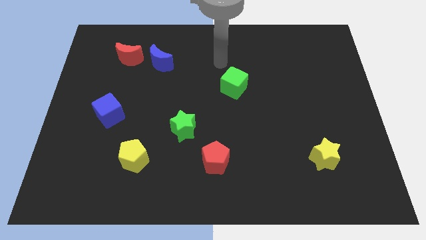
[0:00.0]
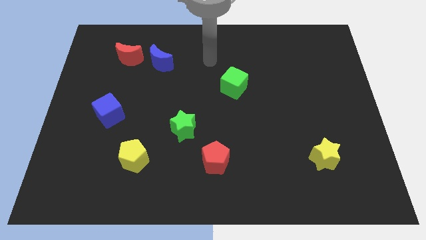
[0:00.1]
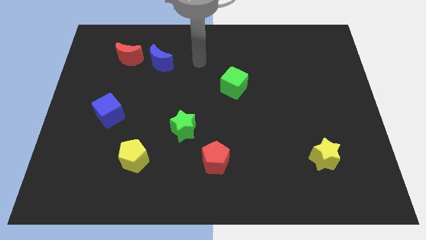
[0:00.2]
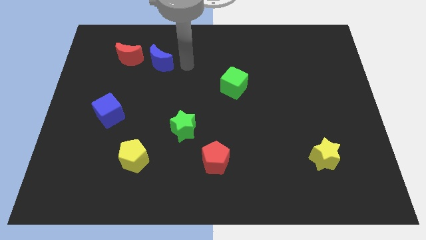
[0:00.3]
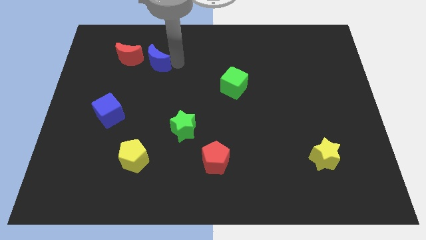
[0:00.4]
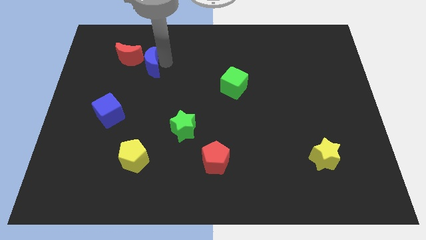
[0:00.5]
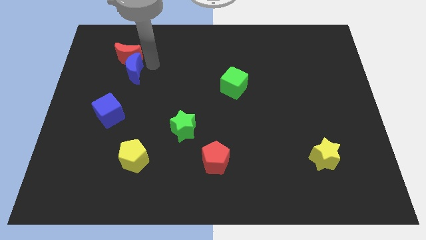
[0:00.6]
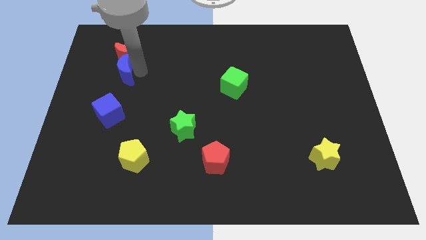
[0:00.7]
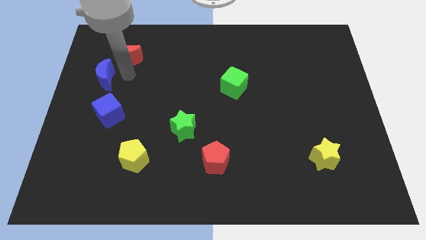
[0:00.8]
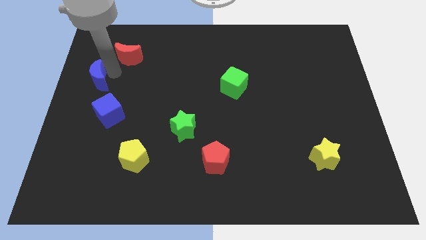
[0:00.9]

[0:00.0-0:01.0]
move the red moon away from the blue moon

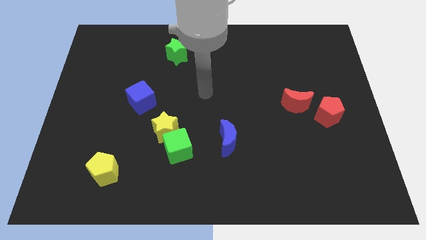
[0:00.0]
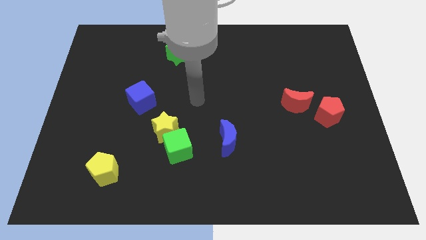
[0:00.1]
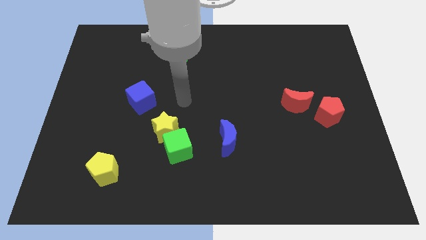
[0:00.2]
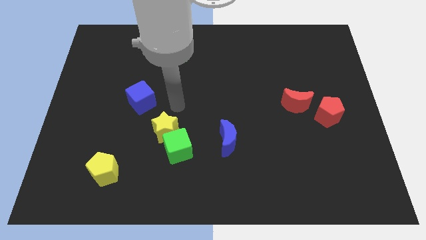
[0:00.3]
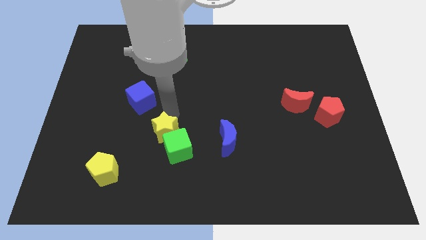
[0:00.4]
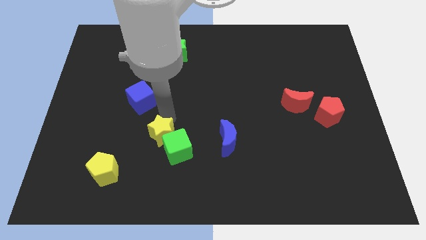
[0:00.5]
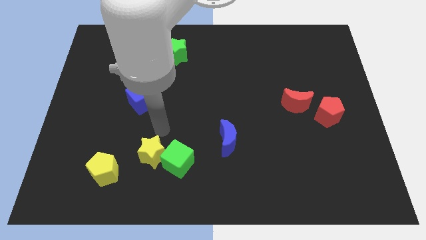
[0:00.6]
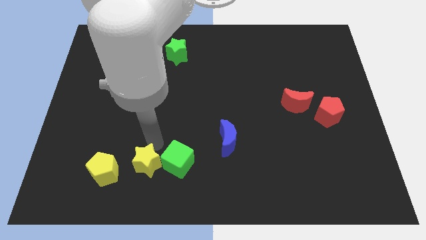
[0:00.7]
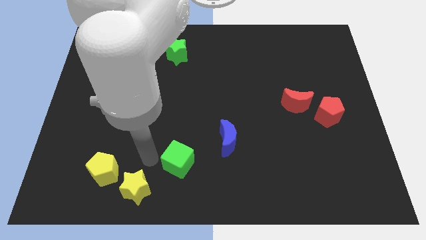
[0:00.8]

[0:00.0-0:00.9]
pull the green cube apart from the yellow star

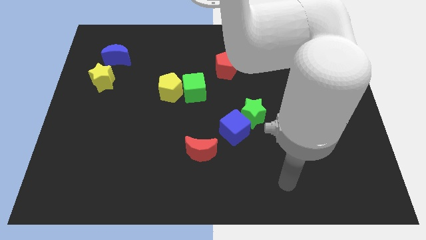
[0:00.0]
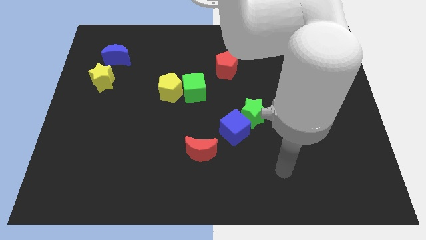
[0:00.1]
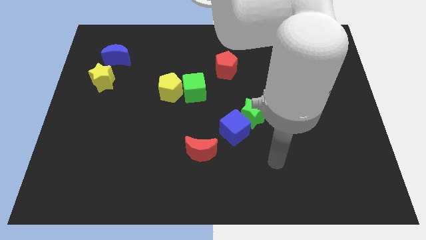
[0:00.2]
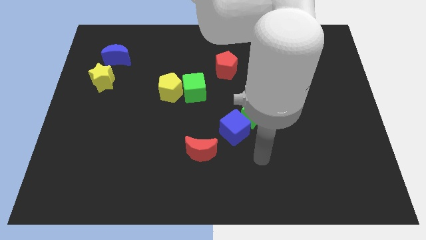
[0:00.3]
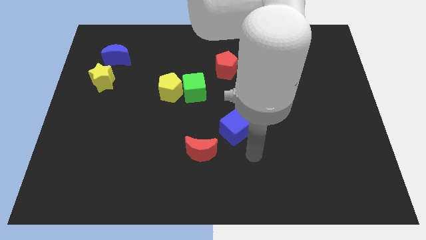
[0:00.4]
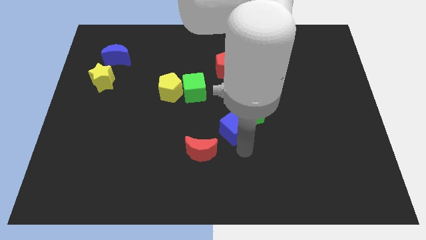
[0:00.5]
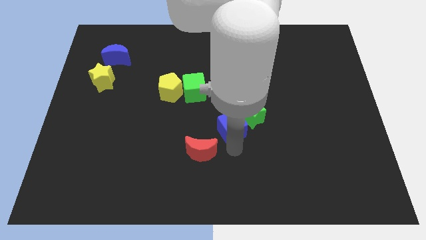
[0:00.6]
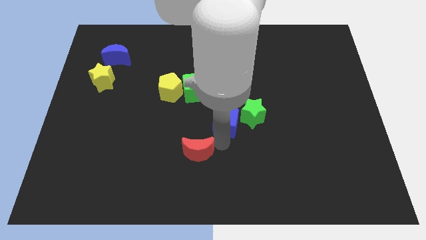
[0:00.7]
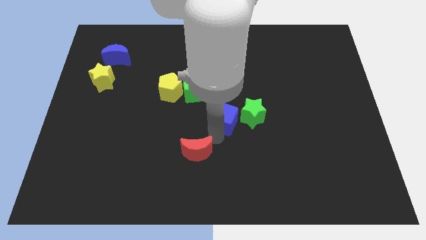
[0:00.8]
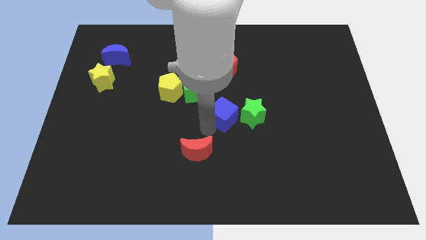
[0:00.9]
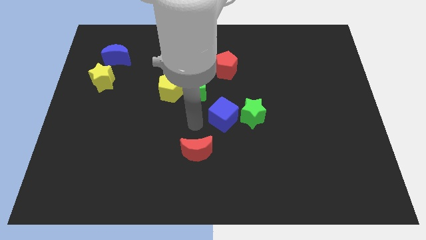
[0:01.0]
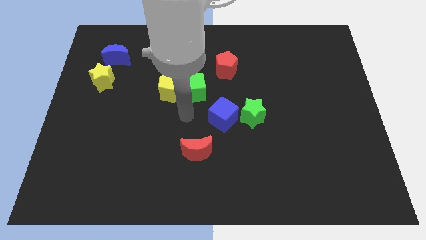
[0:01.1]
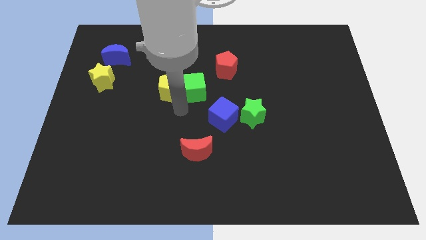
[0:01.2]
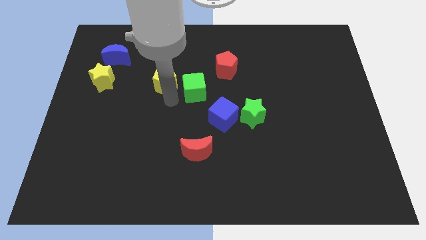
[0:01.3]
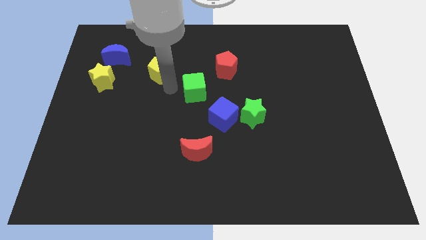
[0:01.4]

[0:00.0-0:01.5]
move the green cube away from the yellow pentagon

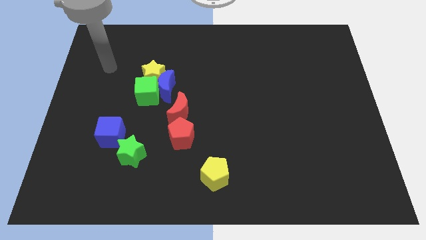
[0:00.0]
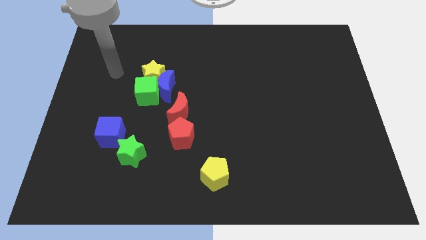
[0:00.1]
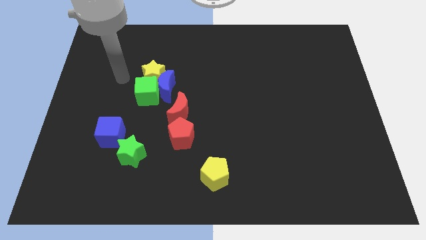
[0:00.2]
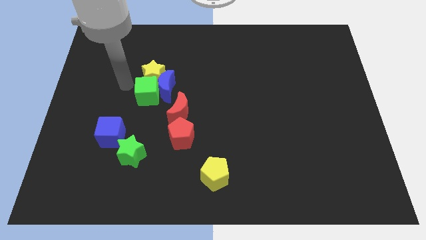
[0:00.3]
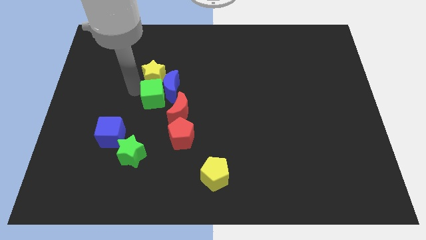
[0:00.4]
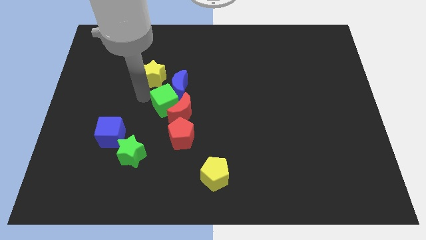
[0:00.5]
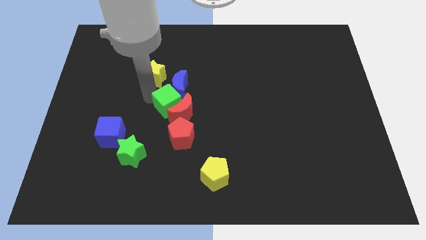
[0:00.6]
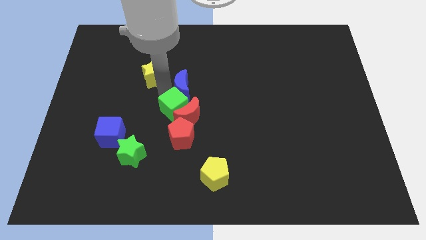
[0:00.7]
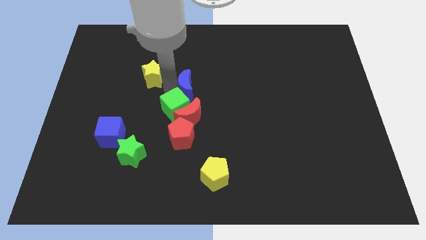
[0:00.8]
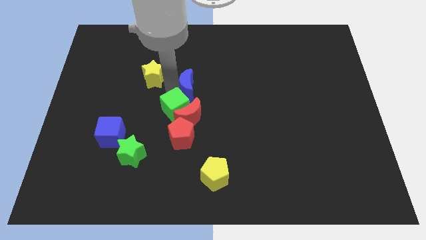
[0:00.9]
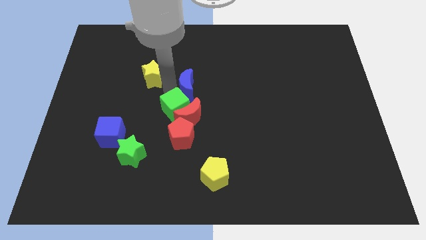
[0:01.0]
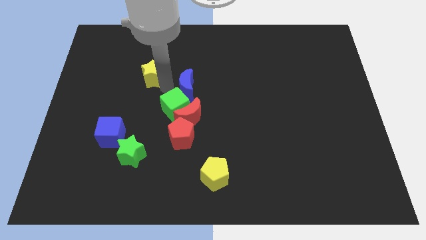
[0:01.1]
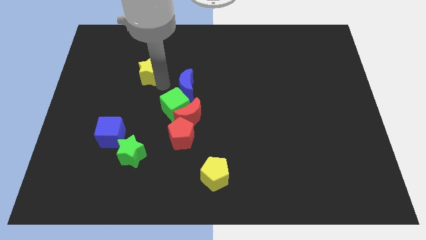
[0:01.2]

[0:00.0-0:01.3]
pull the yellow star apart from the blue moon and green cube

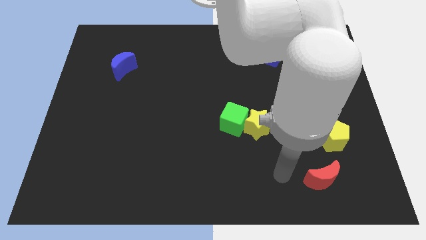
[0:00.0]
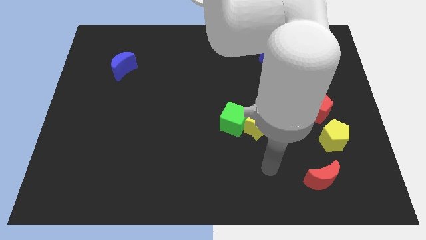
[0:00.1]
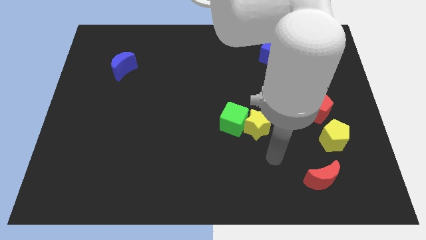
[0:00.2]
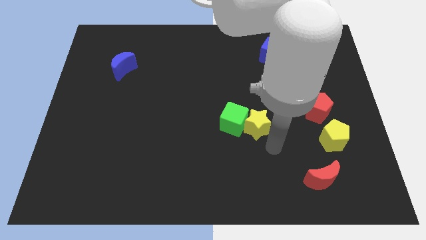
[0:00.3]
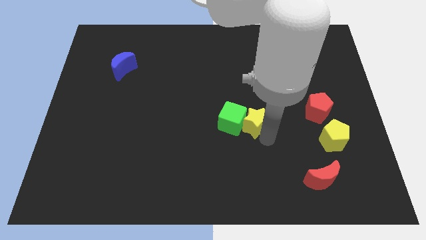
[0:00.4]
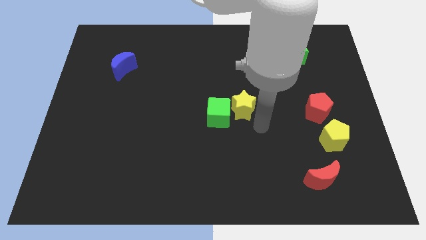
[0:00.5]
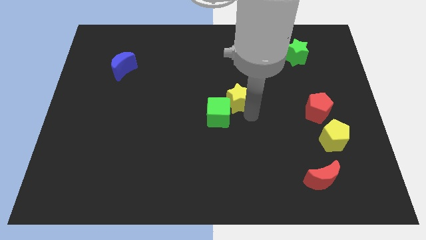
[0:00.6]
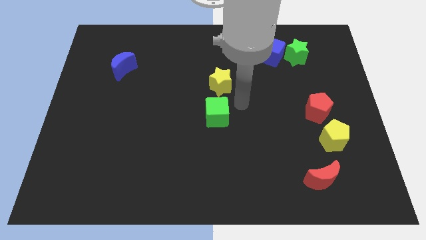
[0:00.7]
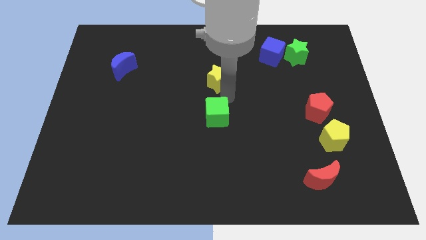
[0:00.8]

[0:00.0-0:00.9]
separate the green cube from the yellow star

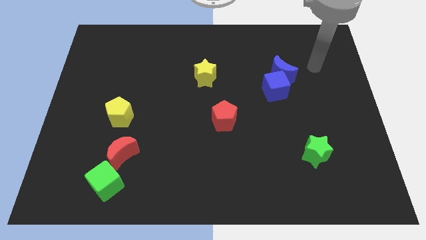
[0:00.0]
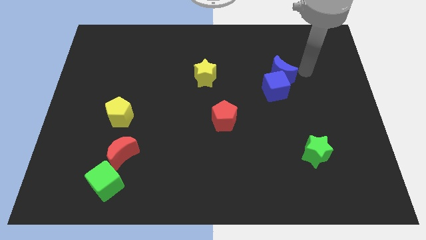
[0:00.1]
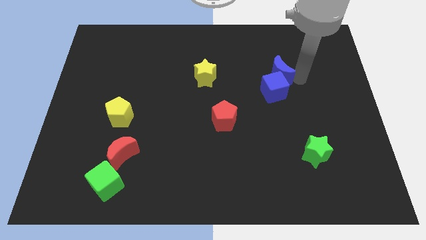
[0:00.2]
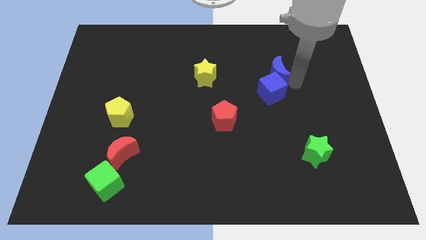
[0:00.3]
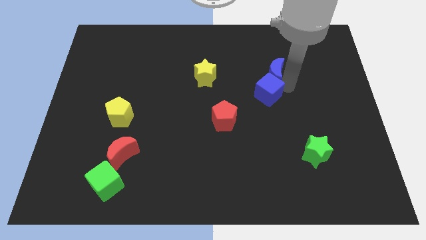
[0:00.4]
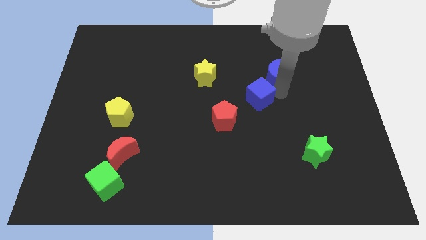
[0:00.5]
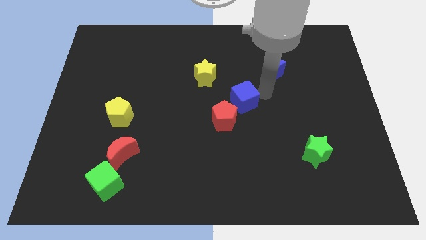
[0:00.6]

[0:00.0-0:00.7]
separate the blue moon from the blue cube

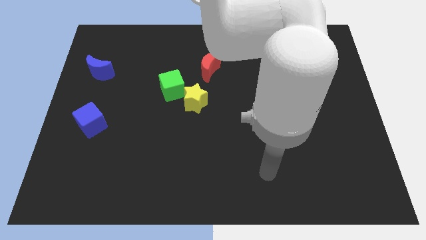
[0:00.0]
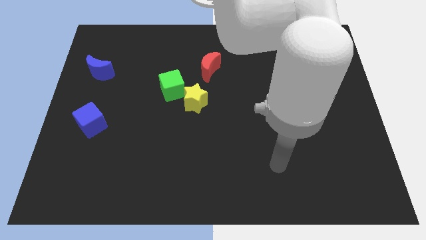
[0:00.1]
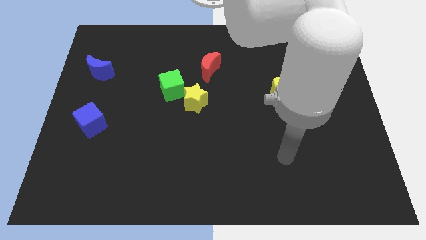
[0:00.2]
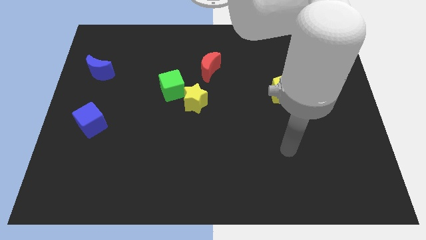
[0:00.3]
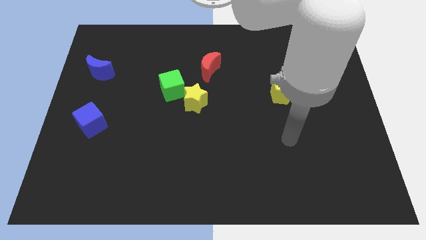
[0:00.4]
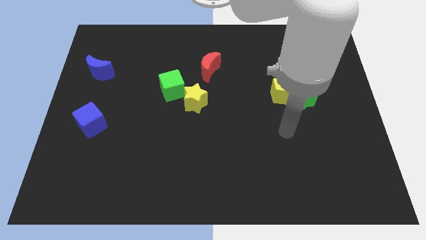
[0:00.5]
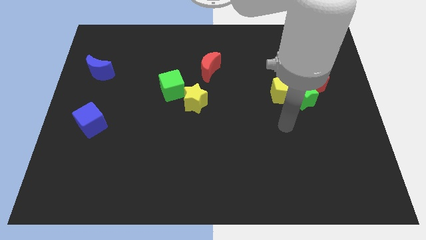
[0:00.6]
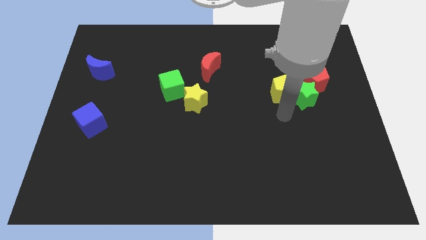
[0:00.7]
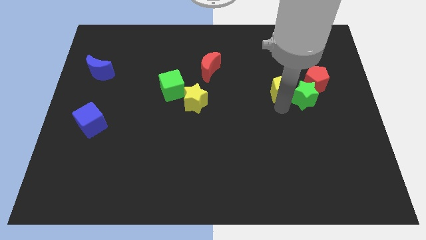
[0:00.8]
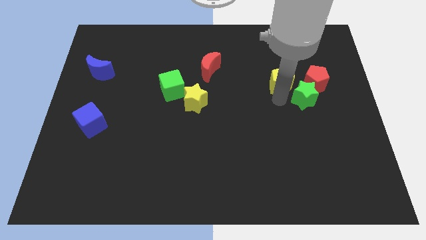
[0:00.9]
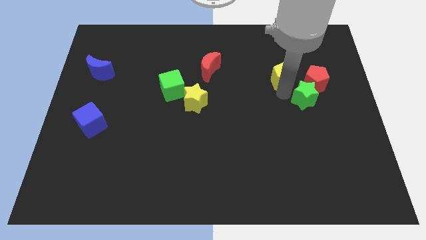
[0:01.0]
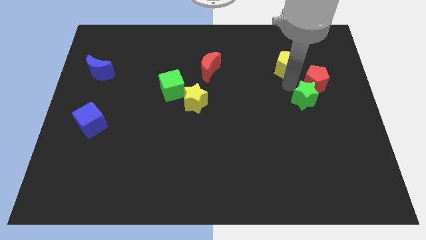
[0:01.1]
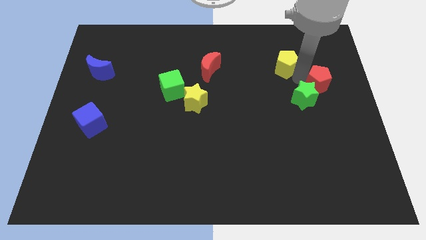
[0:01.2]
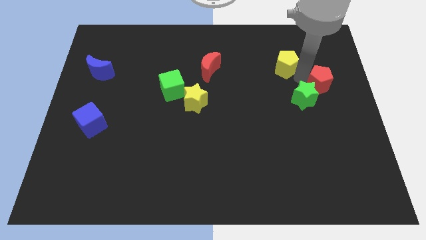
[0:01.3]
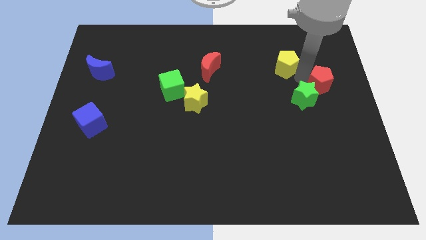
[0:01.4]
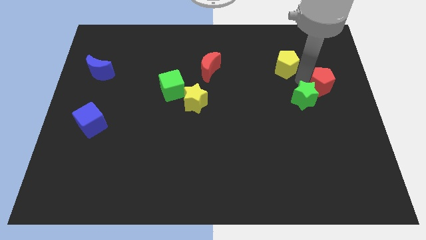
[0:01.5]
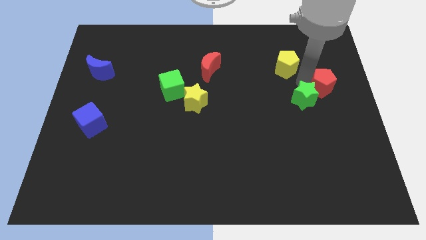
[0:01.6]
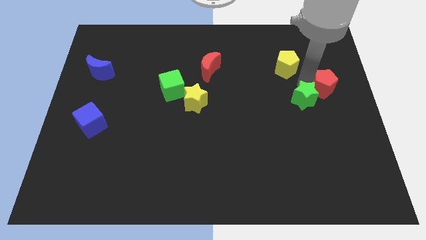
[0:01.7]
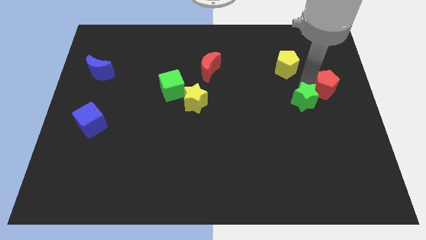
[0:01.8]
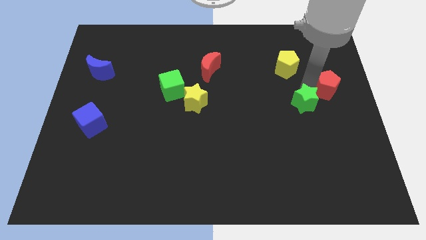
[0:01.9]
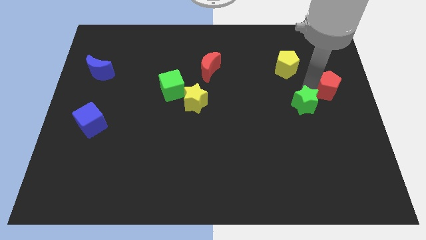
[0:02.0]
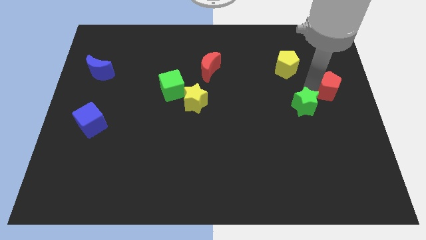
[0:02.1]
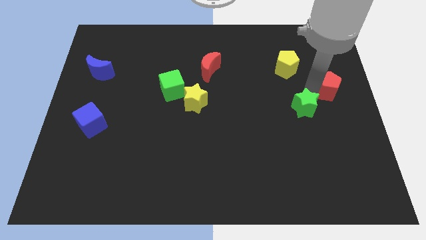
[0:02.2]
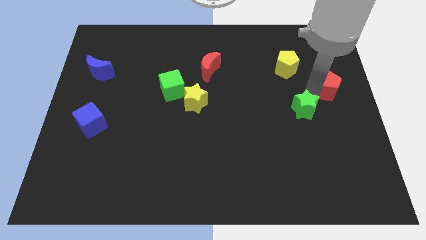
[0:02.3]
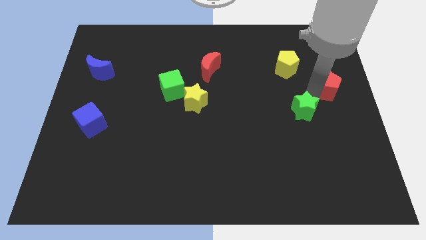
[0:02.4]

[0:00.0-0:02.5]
move the green star away from the yellow pentagon and red pentagon

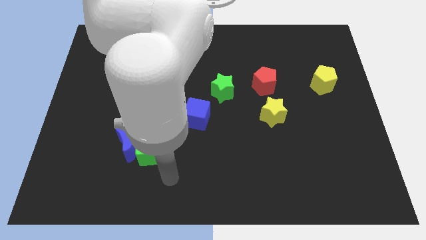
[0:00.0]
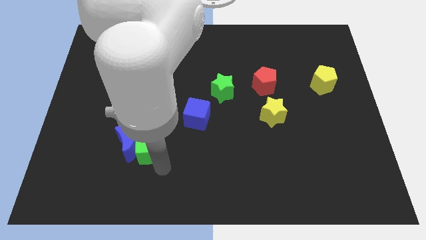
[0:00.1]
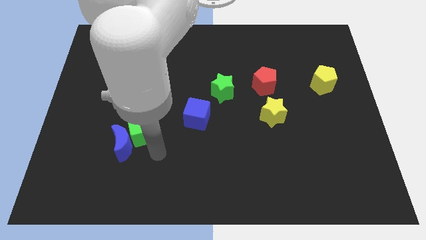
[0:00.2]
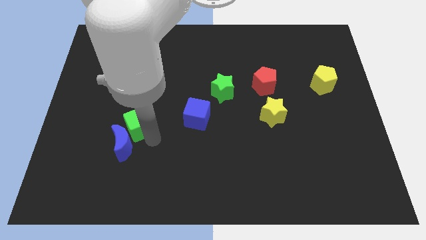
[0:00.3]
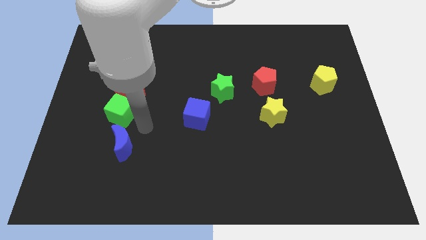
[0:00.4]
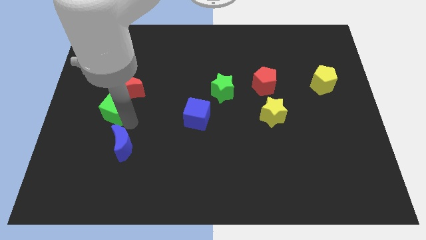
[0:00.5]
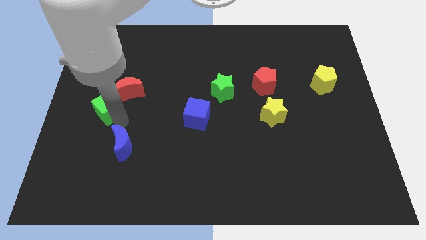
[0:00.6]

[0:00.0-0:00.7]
separate the blue moon from the green cube
